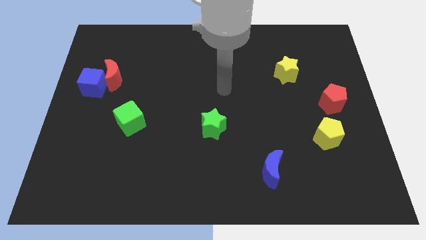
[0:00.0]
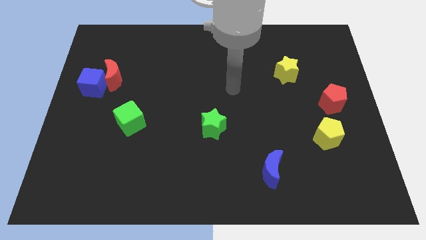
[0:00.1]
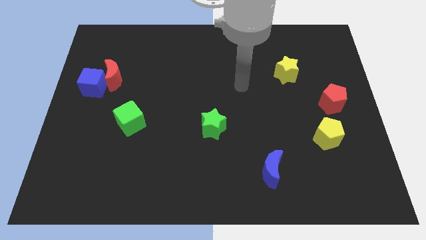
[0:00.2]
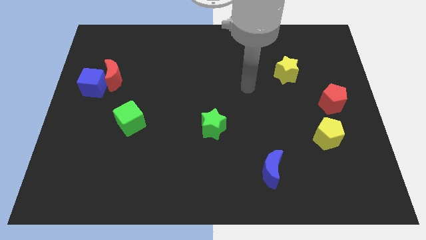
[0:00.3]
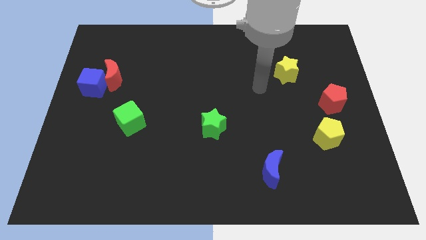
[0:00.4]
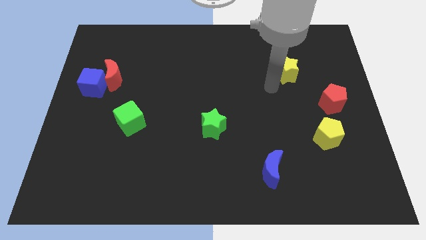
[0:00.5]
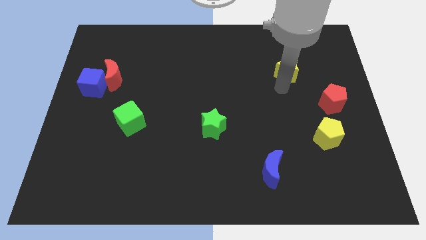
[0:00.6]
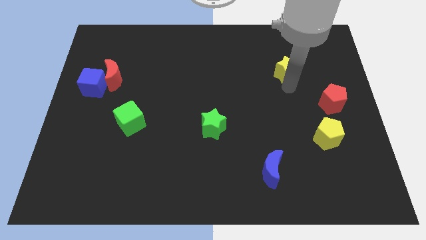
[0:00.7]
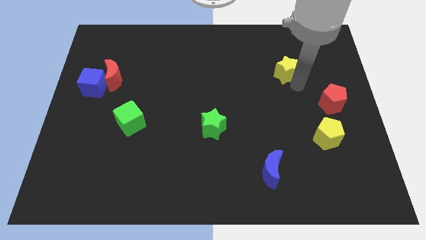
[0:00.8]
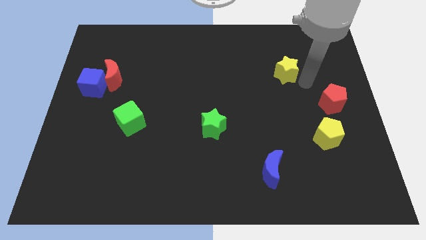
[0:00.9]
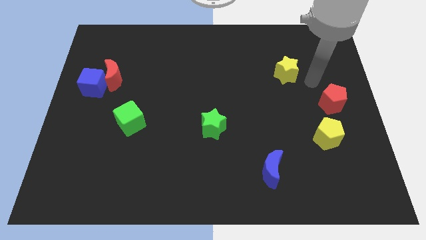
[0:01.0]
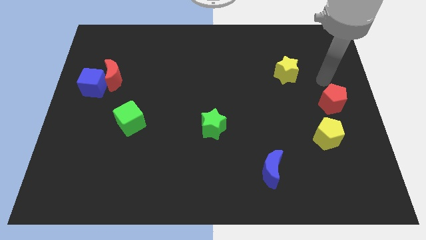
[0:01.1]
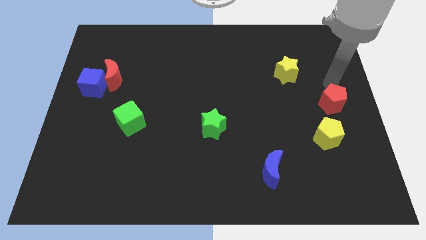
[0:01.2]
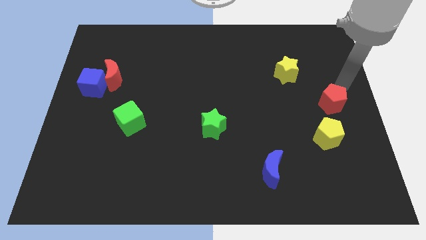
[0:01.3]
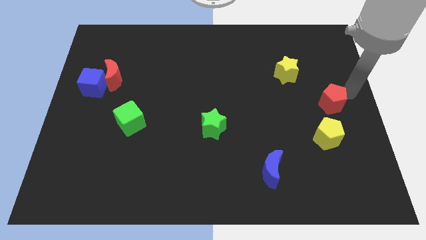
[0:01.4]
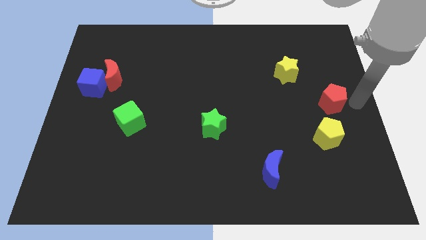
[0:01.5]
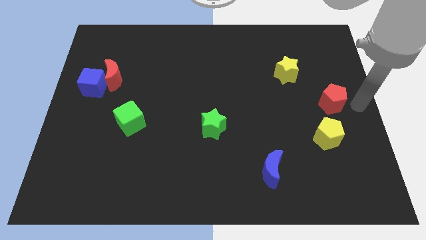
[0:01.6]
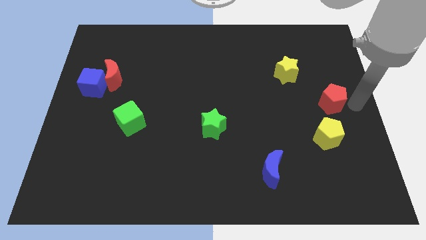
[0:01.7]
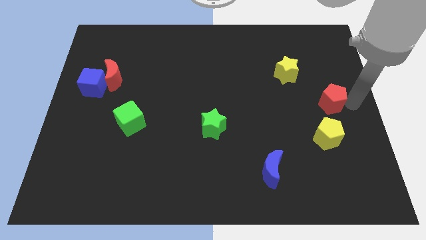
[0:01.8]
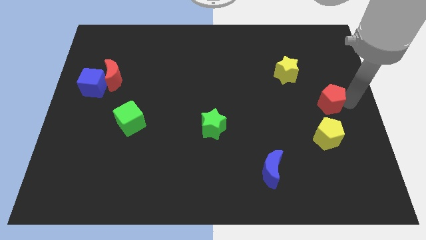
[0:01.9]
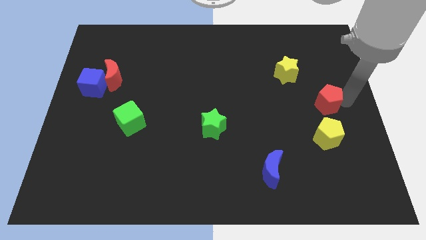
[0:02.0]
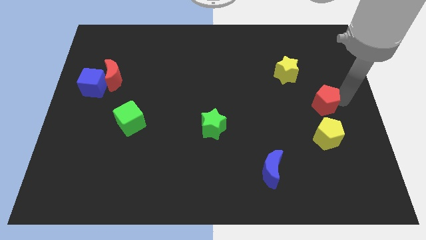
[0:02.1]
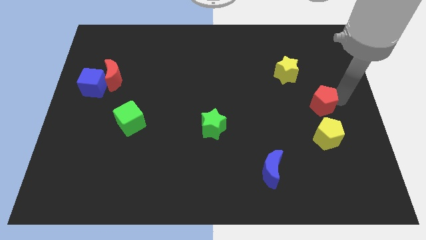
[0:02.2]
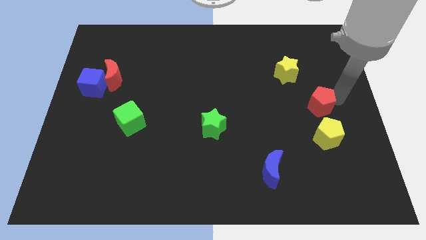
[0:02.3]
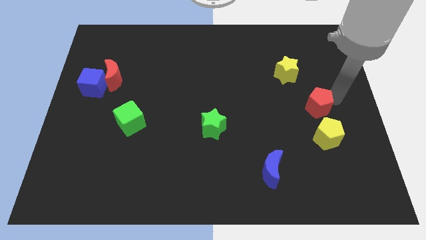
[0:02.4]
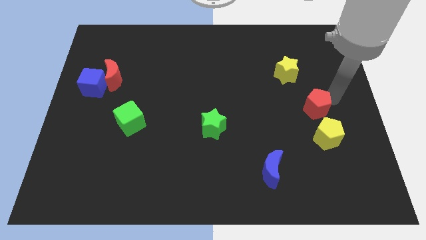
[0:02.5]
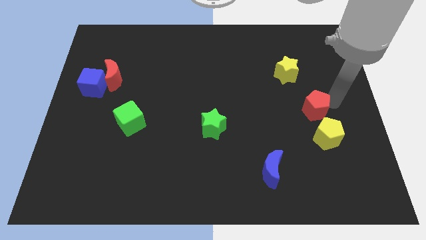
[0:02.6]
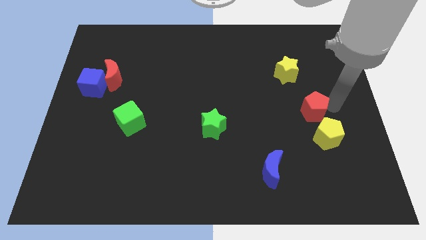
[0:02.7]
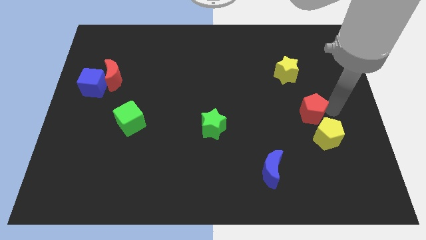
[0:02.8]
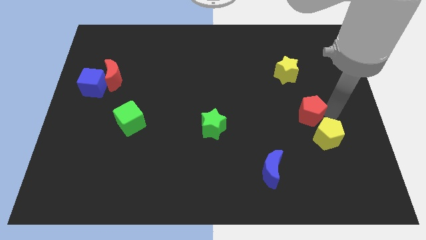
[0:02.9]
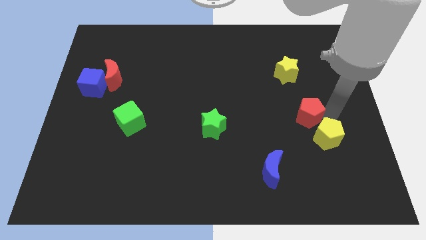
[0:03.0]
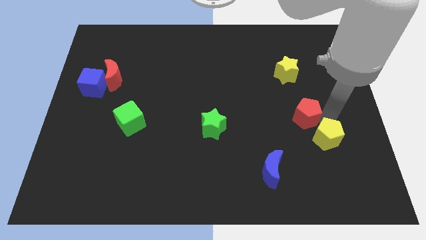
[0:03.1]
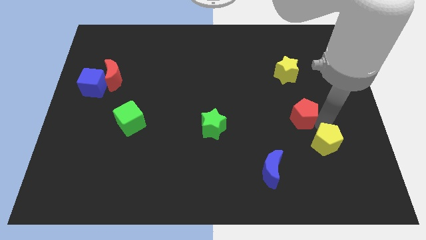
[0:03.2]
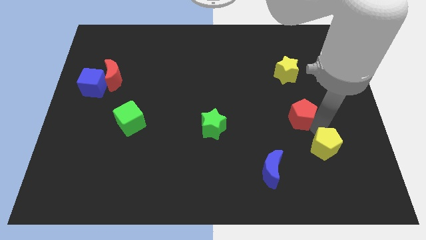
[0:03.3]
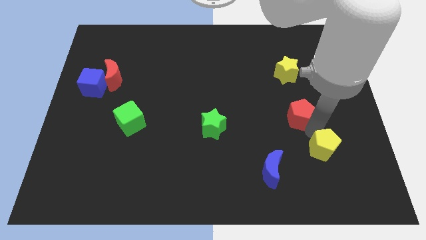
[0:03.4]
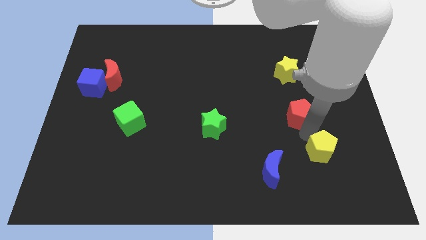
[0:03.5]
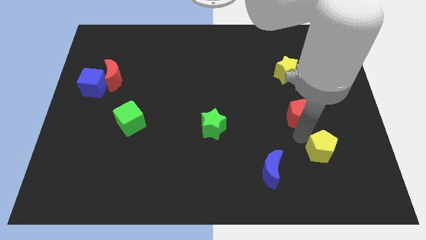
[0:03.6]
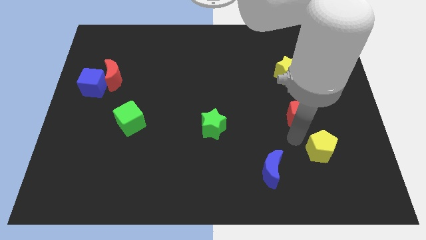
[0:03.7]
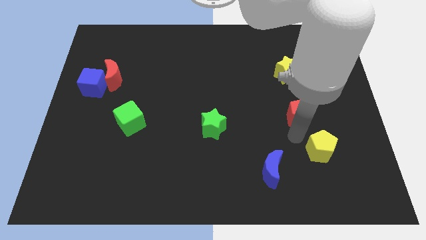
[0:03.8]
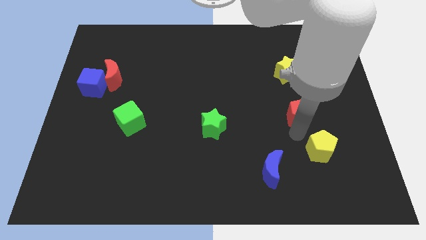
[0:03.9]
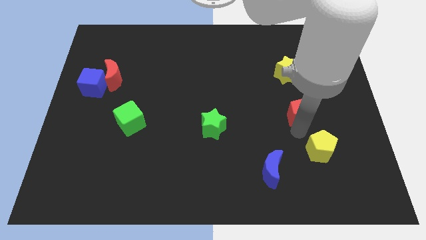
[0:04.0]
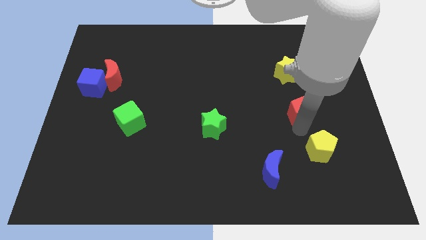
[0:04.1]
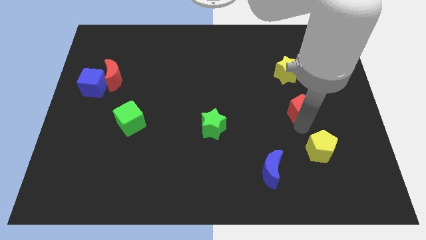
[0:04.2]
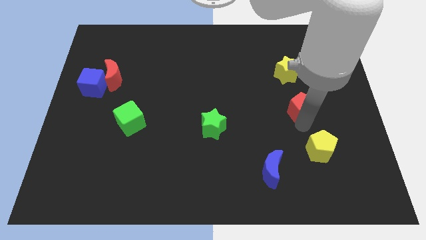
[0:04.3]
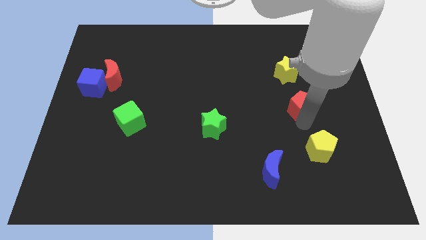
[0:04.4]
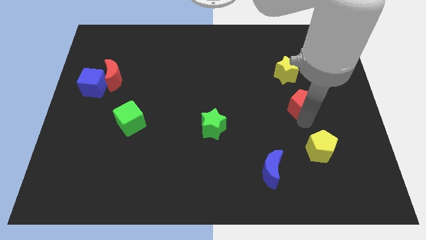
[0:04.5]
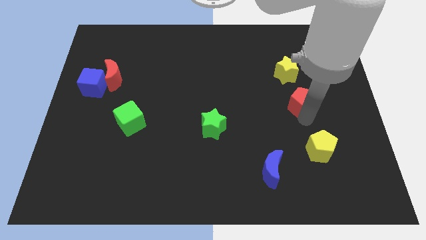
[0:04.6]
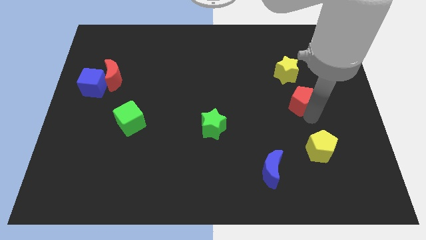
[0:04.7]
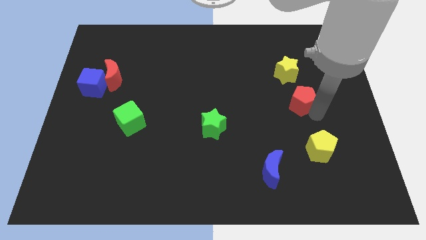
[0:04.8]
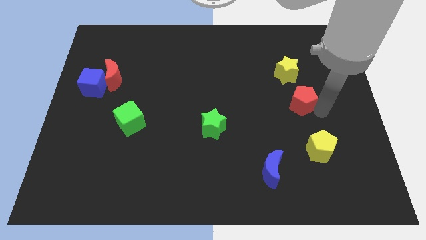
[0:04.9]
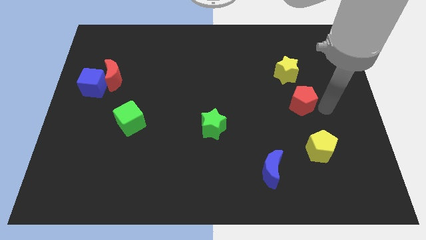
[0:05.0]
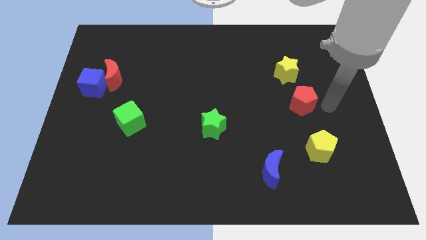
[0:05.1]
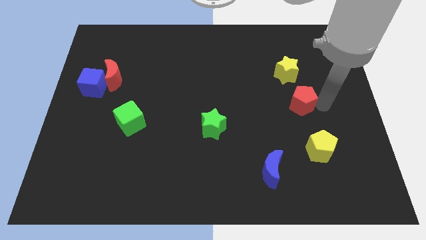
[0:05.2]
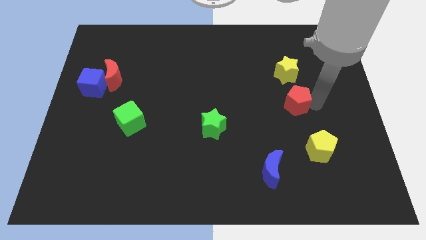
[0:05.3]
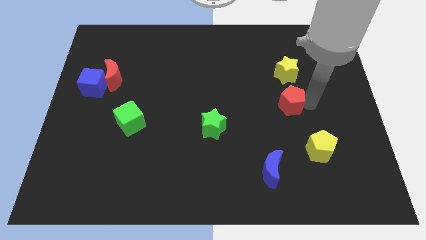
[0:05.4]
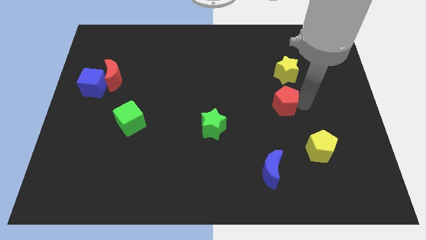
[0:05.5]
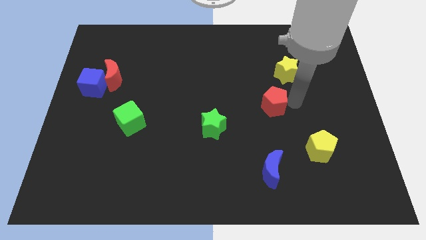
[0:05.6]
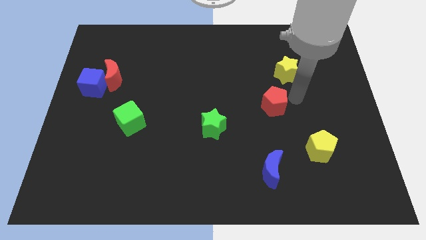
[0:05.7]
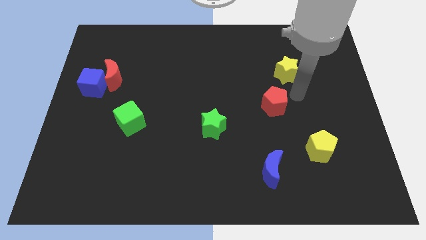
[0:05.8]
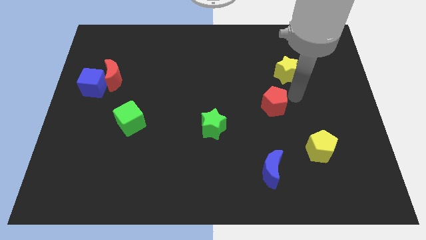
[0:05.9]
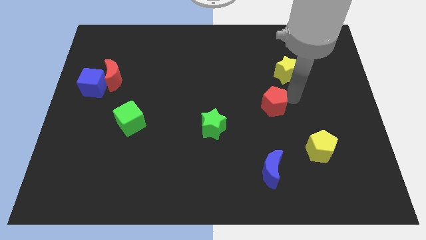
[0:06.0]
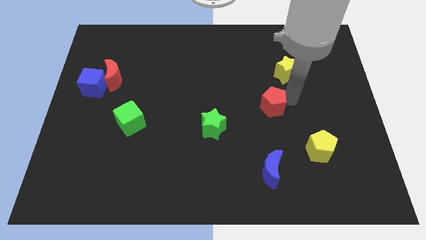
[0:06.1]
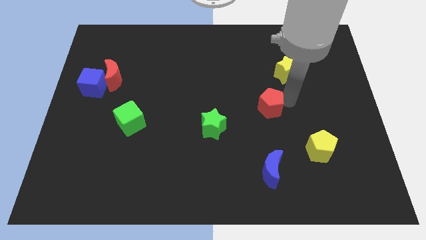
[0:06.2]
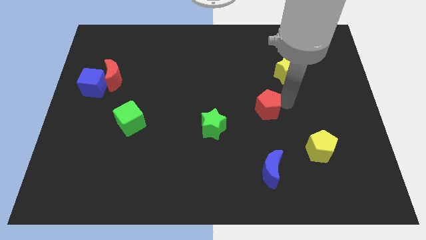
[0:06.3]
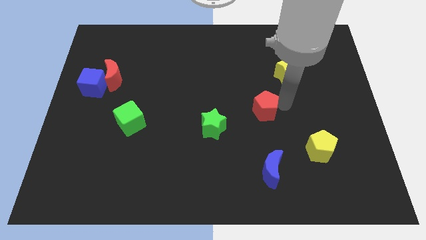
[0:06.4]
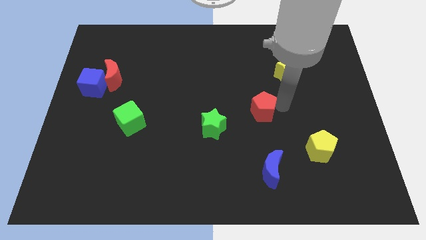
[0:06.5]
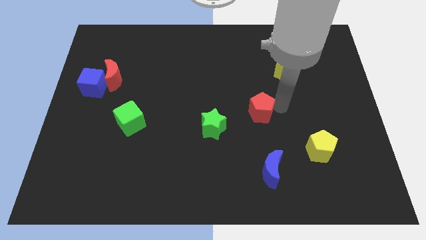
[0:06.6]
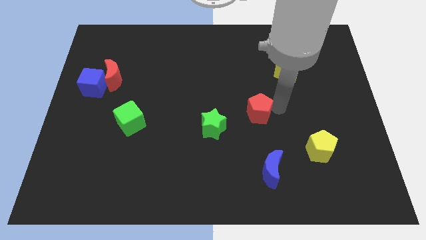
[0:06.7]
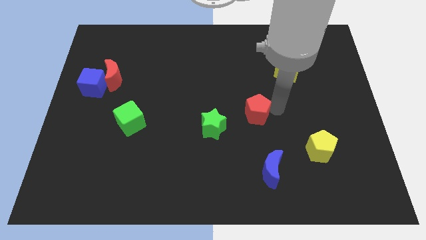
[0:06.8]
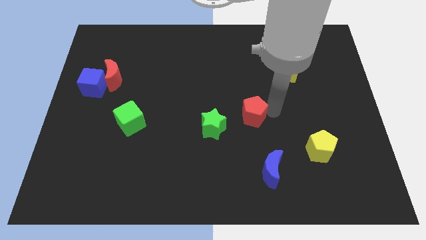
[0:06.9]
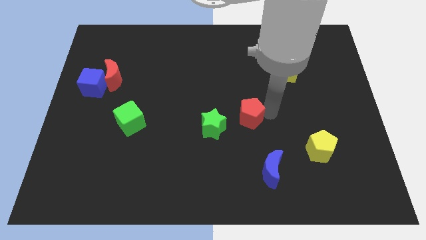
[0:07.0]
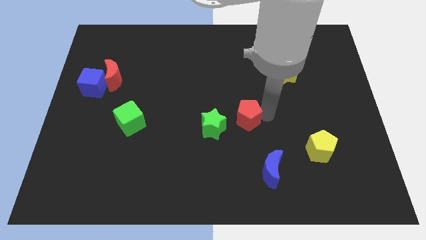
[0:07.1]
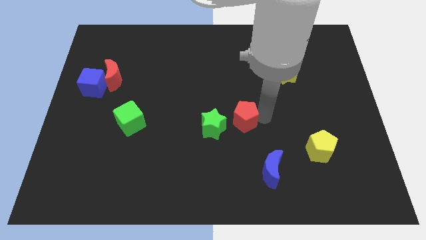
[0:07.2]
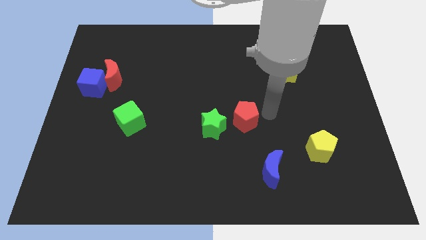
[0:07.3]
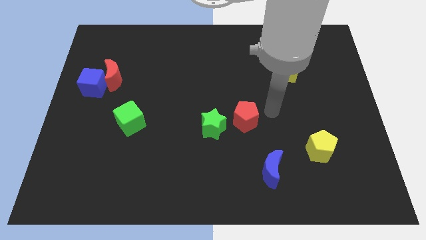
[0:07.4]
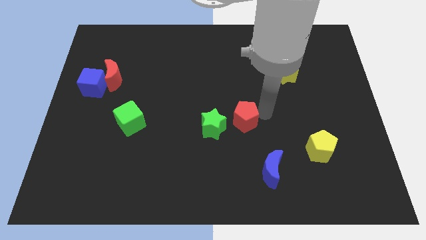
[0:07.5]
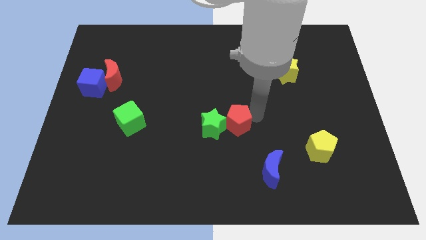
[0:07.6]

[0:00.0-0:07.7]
put the red pentagon close to the green star
